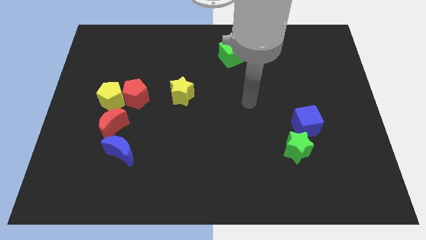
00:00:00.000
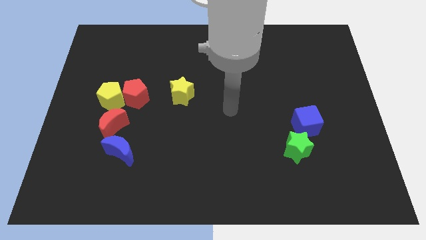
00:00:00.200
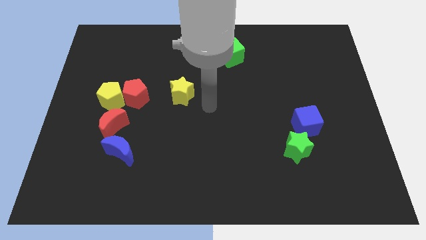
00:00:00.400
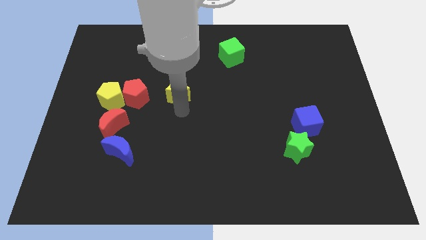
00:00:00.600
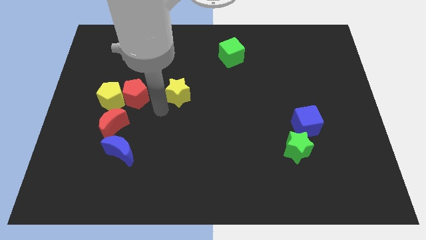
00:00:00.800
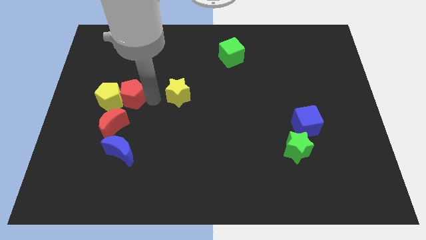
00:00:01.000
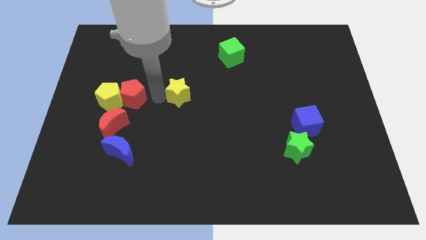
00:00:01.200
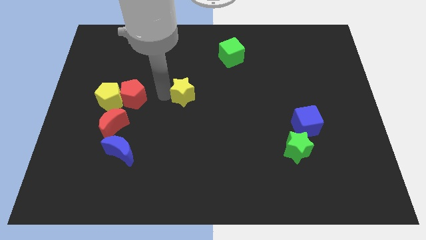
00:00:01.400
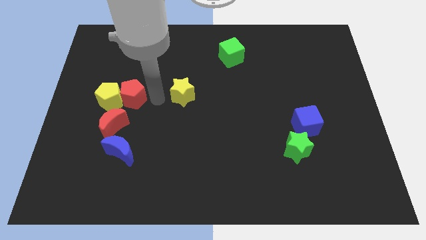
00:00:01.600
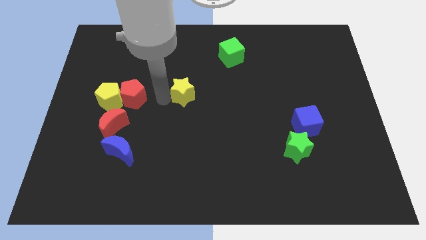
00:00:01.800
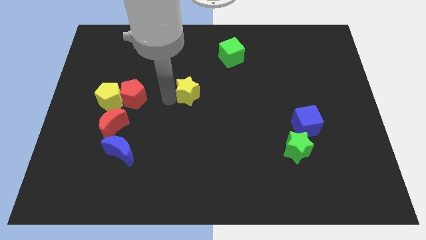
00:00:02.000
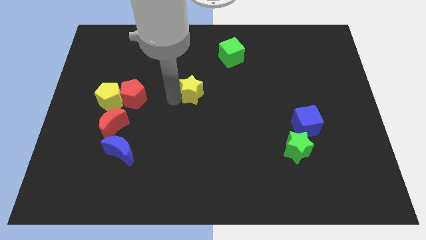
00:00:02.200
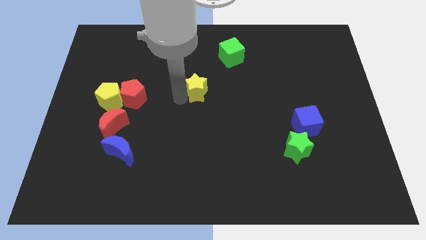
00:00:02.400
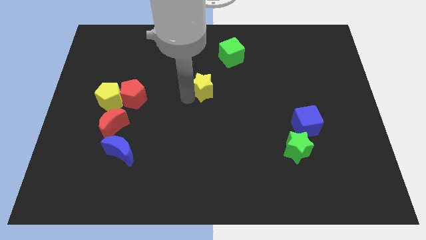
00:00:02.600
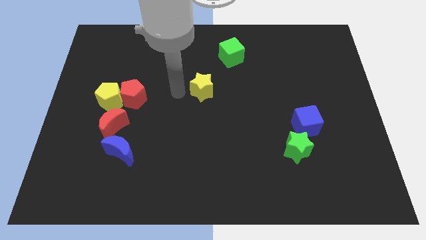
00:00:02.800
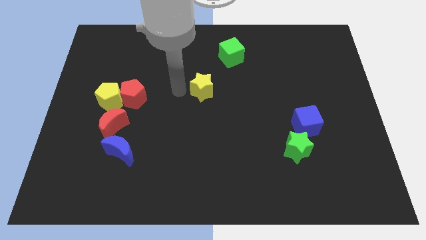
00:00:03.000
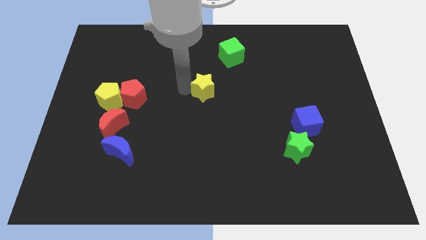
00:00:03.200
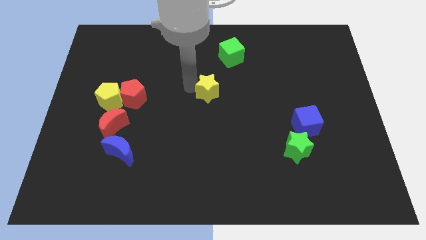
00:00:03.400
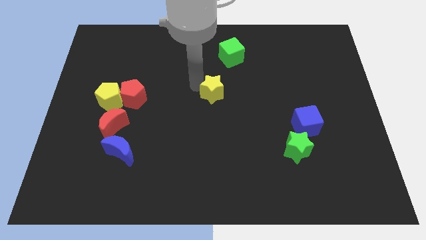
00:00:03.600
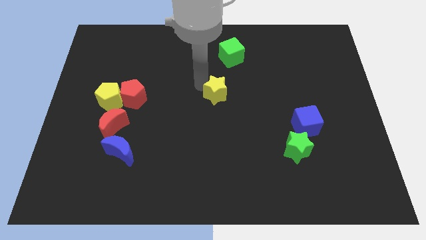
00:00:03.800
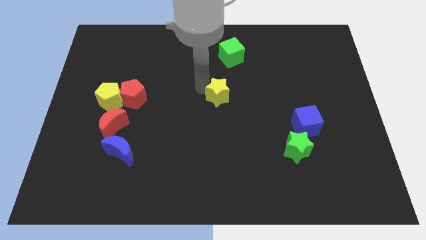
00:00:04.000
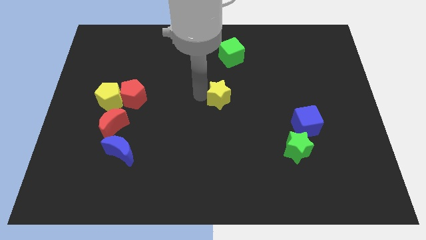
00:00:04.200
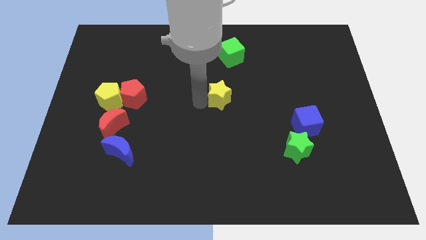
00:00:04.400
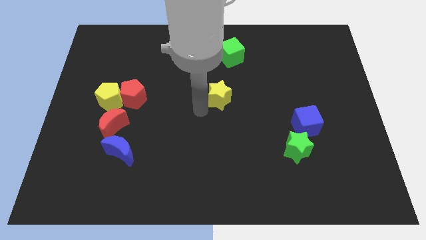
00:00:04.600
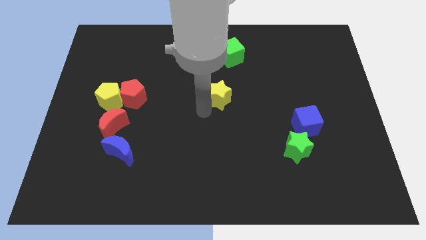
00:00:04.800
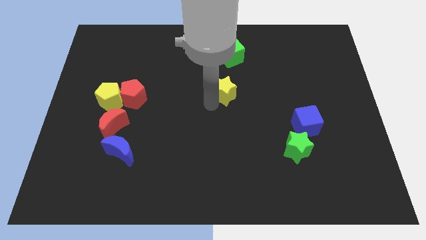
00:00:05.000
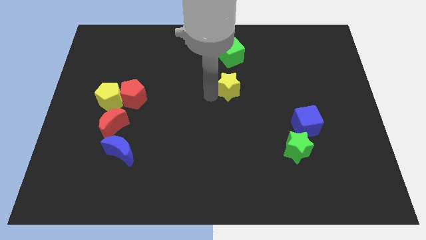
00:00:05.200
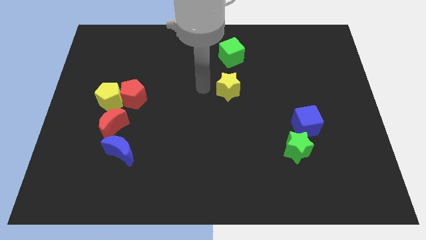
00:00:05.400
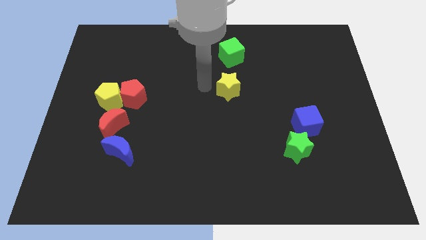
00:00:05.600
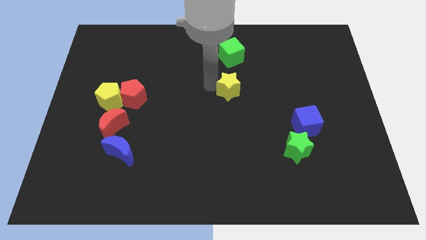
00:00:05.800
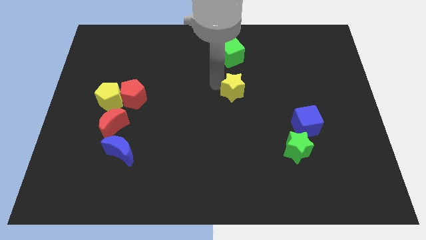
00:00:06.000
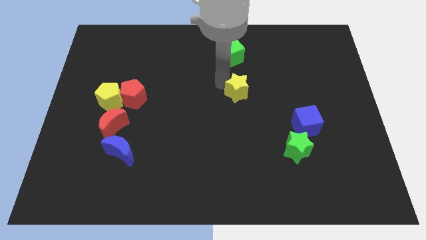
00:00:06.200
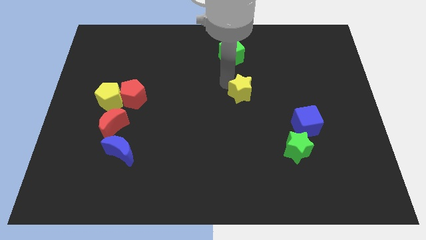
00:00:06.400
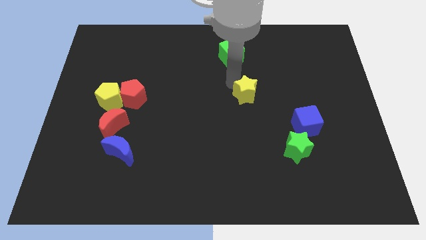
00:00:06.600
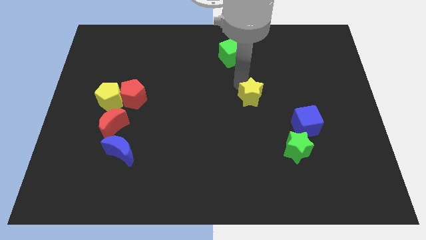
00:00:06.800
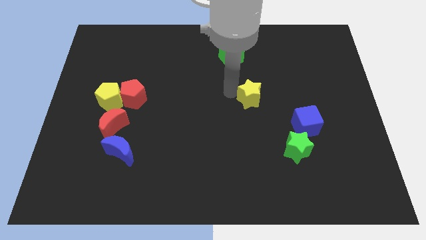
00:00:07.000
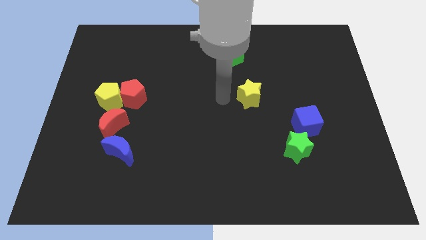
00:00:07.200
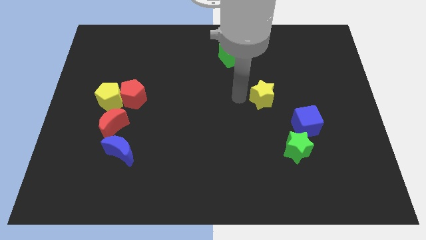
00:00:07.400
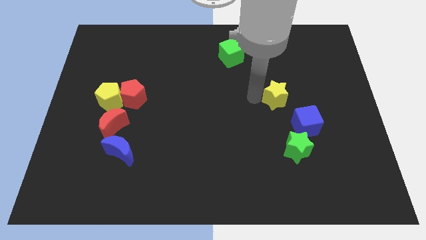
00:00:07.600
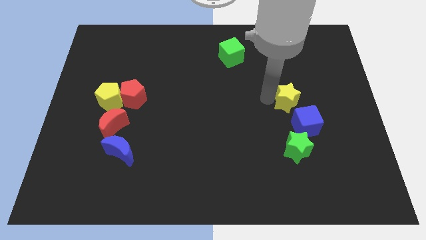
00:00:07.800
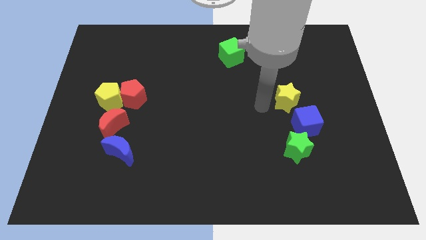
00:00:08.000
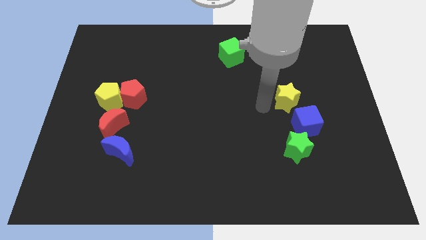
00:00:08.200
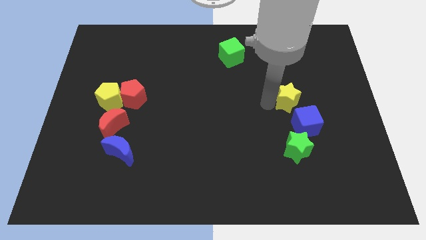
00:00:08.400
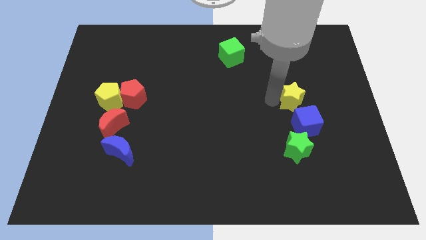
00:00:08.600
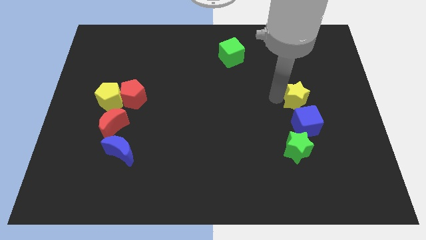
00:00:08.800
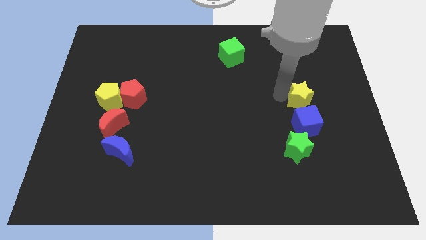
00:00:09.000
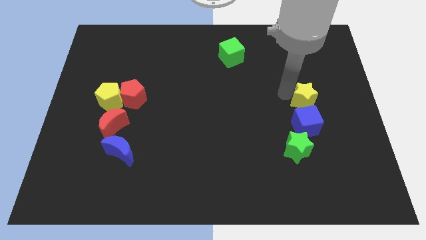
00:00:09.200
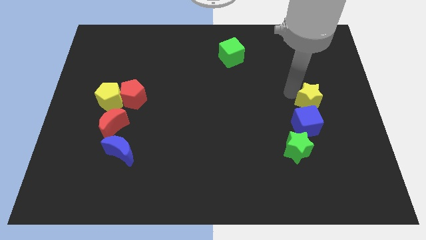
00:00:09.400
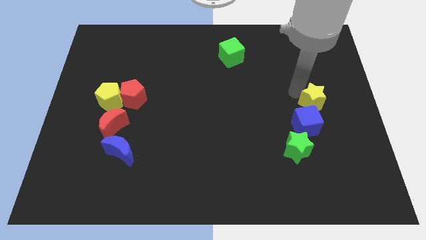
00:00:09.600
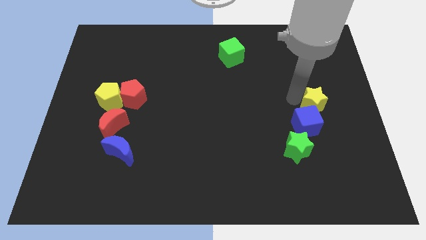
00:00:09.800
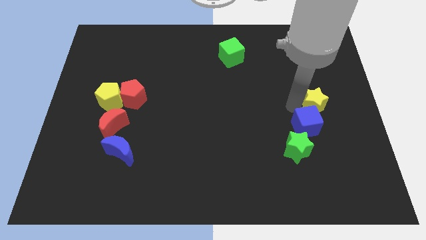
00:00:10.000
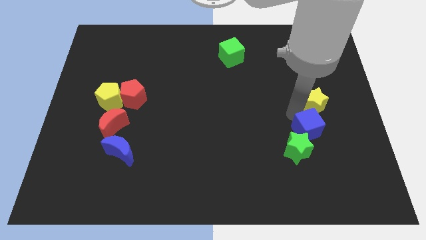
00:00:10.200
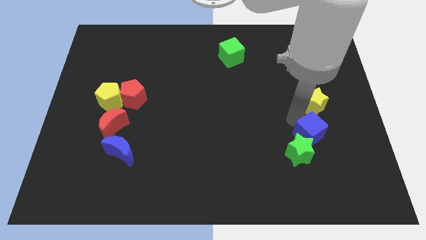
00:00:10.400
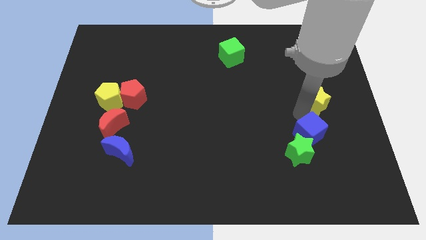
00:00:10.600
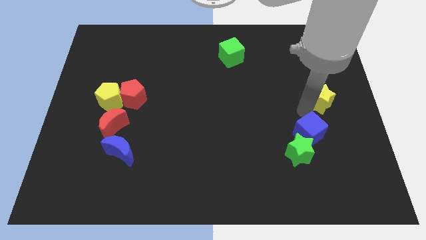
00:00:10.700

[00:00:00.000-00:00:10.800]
slide the yellow star to the right side

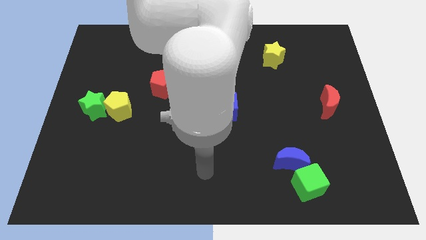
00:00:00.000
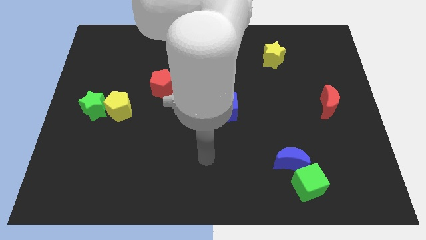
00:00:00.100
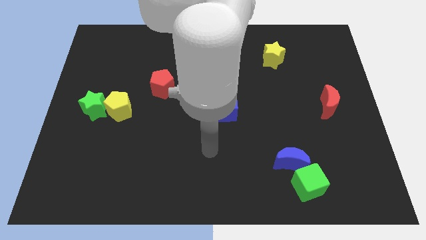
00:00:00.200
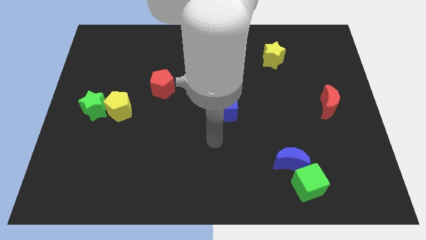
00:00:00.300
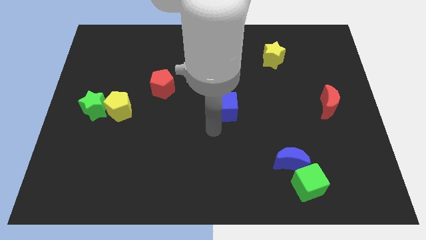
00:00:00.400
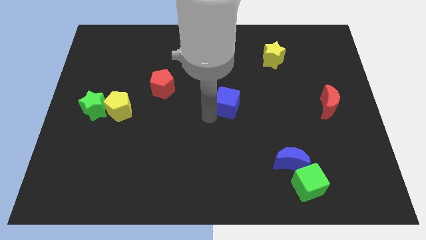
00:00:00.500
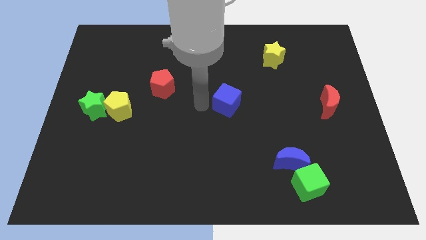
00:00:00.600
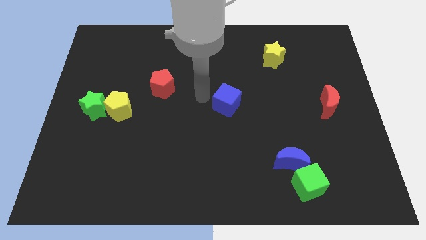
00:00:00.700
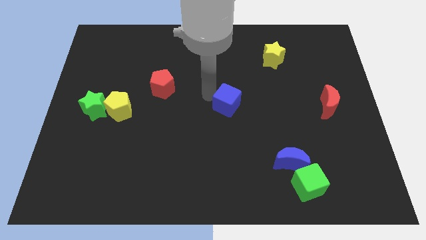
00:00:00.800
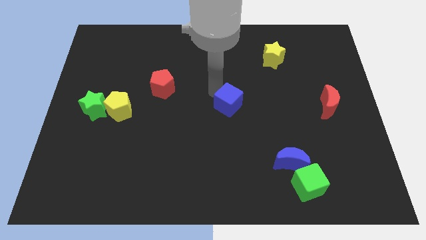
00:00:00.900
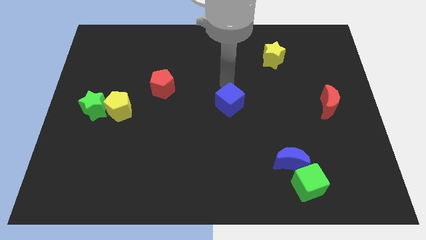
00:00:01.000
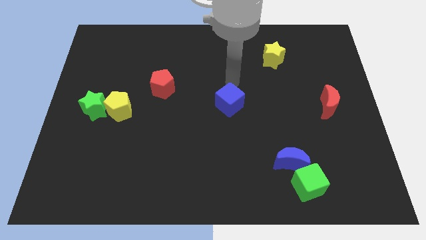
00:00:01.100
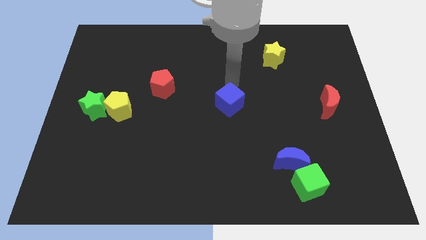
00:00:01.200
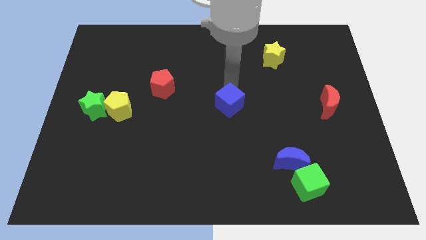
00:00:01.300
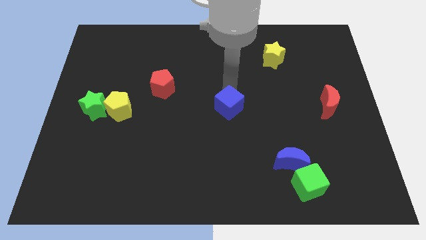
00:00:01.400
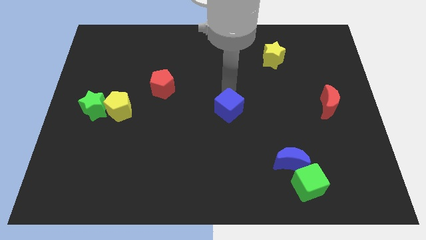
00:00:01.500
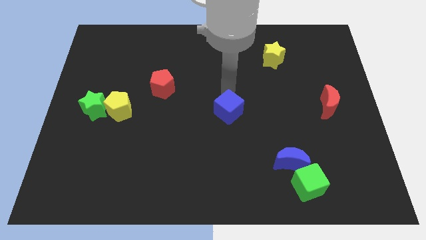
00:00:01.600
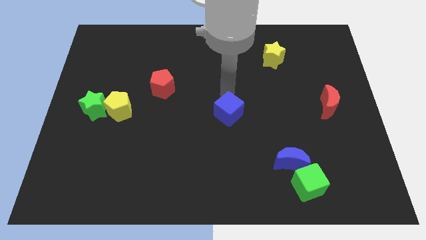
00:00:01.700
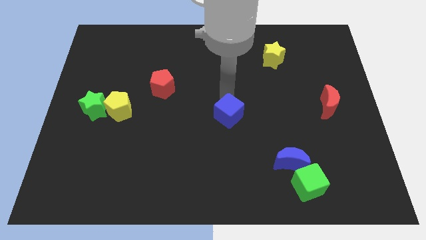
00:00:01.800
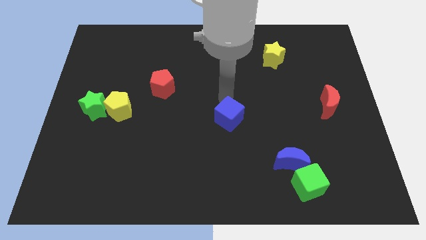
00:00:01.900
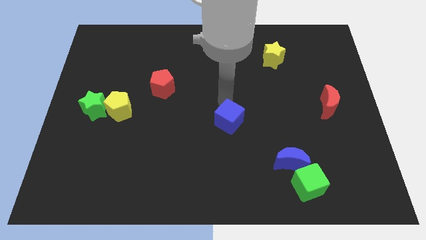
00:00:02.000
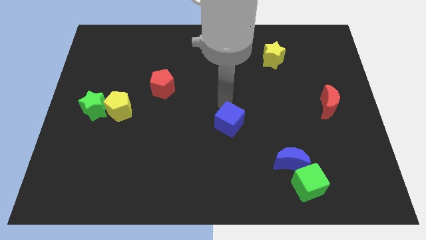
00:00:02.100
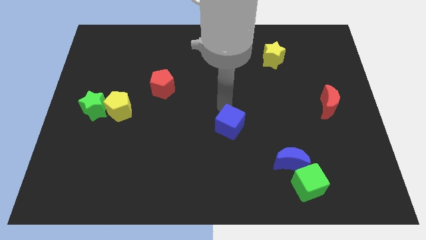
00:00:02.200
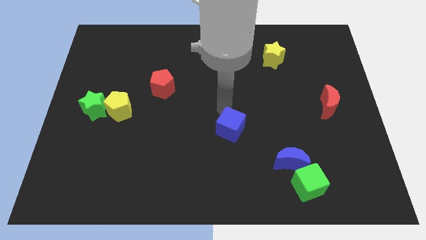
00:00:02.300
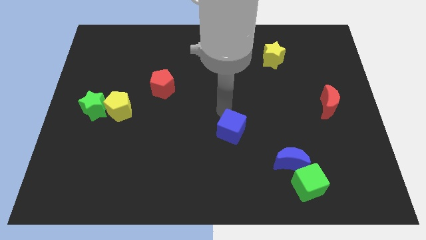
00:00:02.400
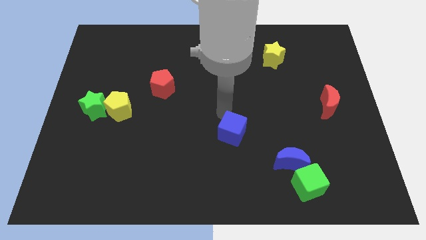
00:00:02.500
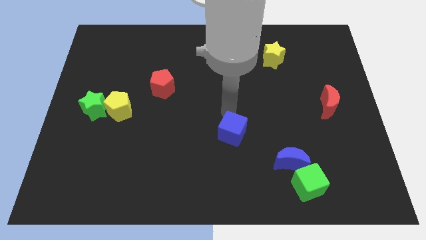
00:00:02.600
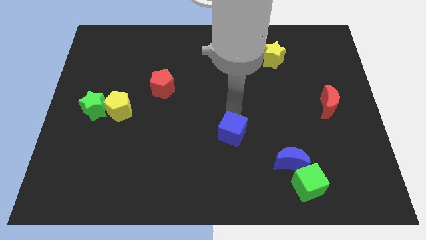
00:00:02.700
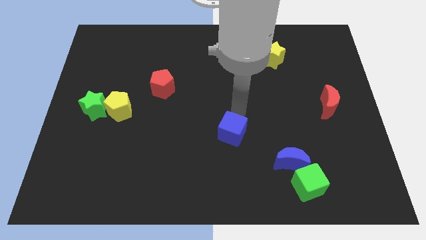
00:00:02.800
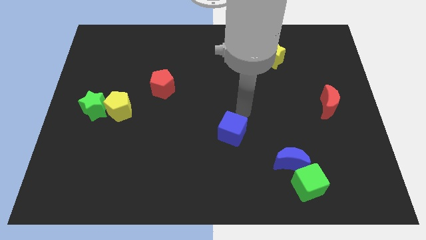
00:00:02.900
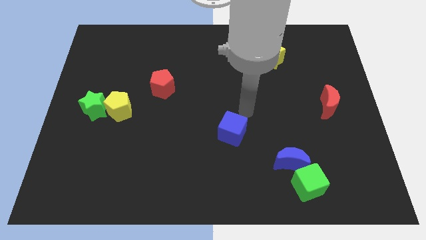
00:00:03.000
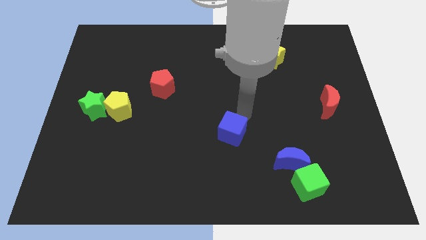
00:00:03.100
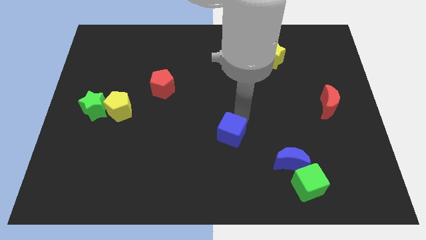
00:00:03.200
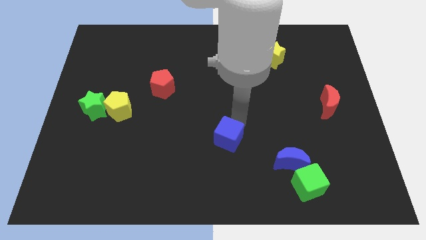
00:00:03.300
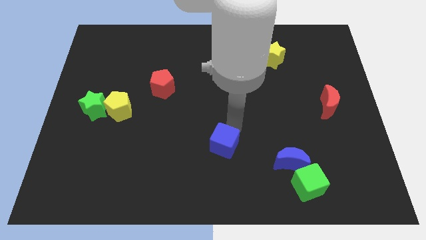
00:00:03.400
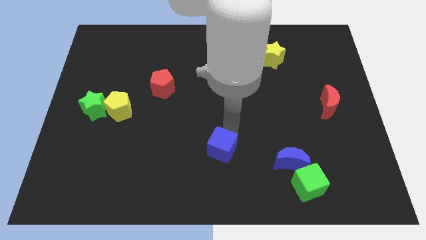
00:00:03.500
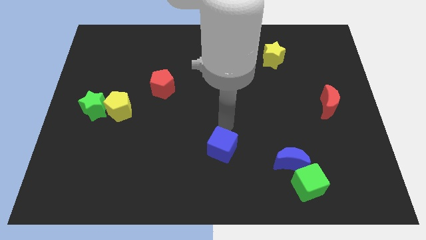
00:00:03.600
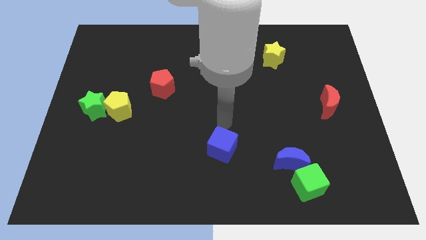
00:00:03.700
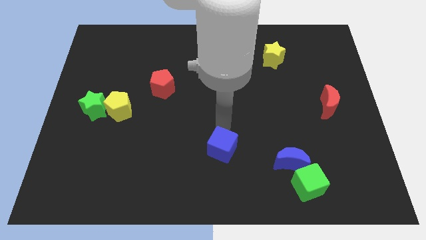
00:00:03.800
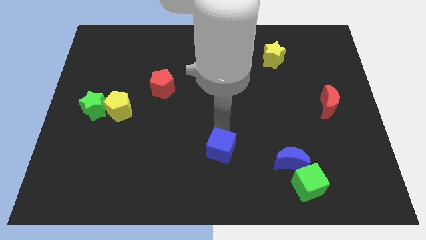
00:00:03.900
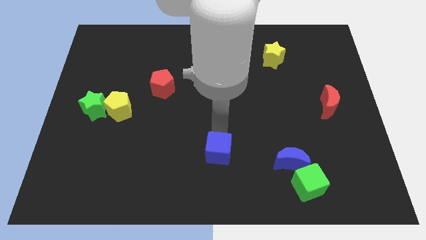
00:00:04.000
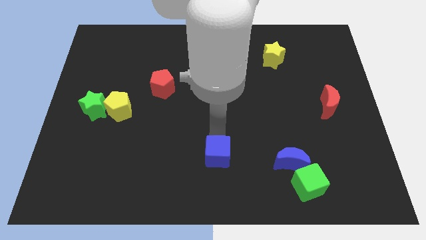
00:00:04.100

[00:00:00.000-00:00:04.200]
push the blue cube to the bottom
